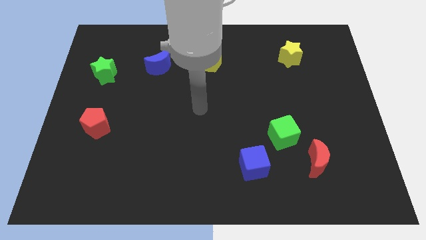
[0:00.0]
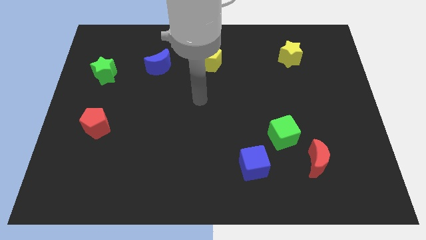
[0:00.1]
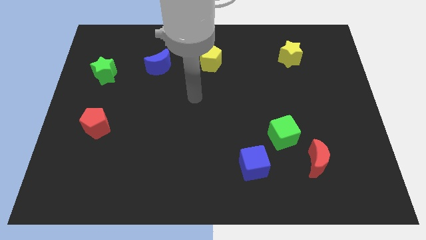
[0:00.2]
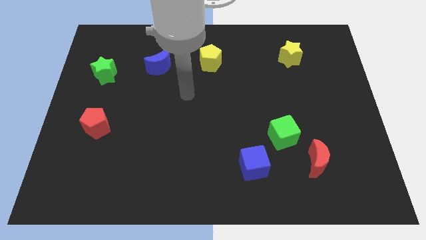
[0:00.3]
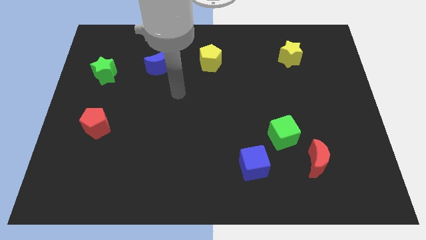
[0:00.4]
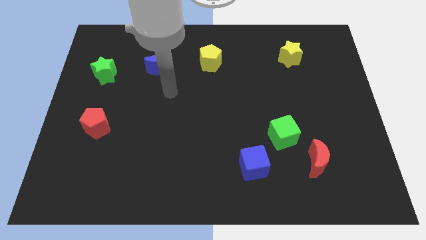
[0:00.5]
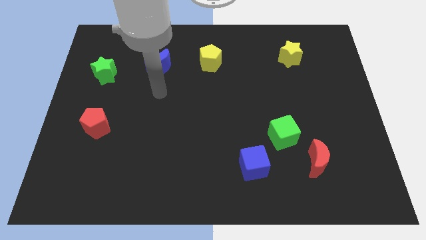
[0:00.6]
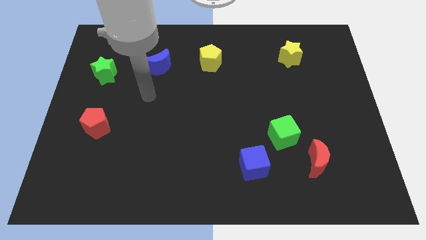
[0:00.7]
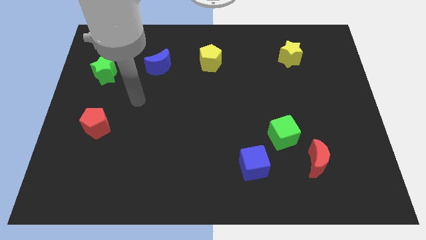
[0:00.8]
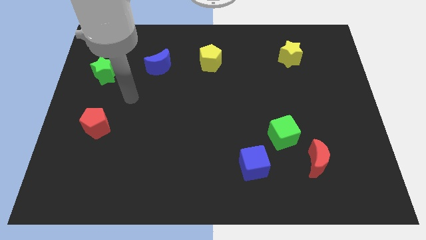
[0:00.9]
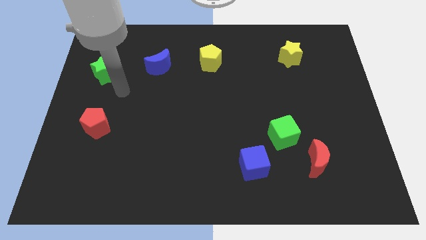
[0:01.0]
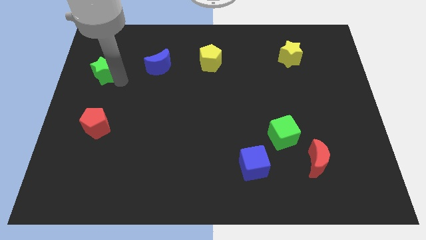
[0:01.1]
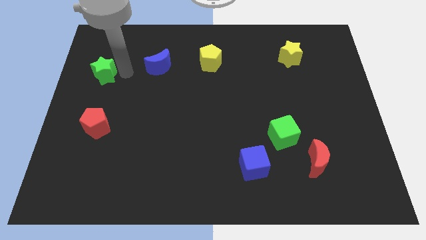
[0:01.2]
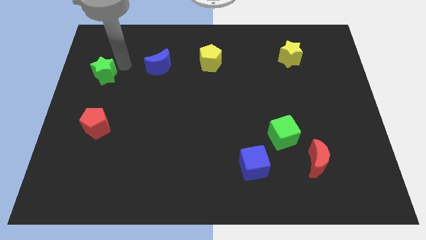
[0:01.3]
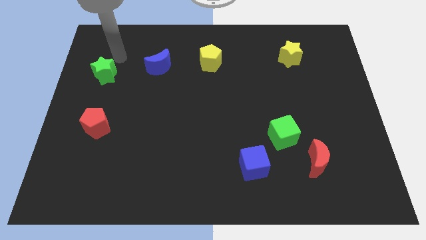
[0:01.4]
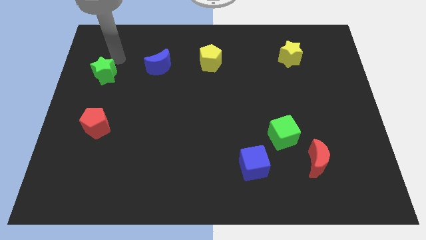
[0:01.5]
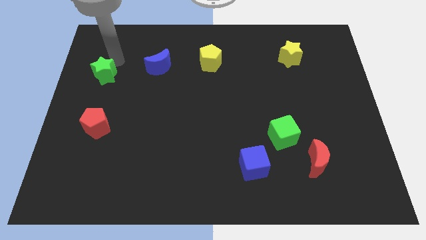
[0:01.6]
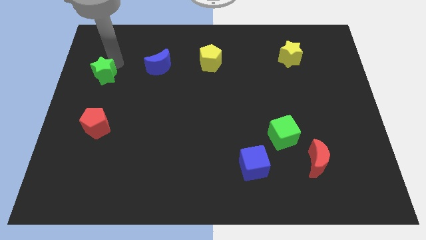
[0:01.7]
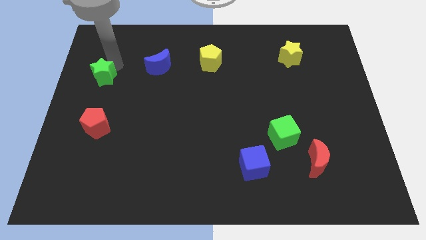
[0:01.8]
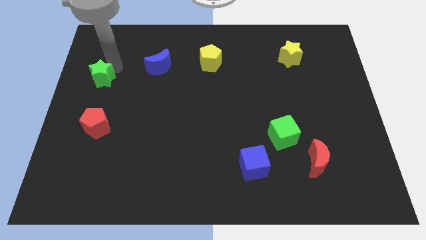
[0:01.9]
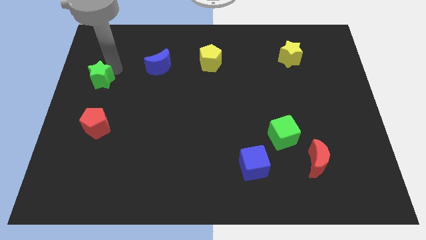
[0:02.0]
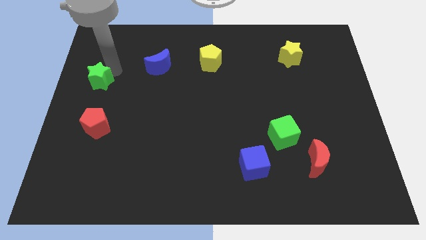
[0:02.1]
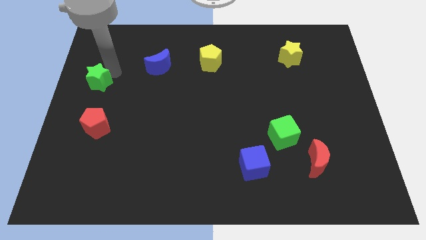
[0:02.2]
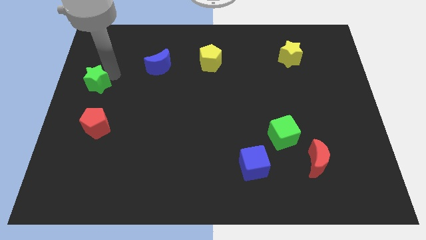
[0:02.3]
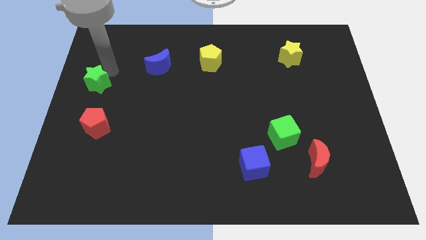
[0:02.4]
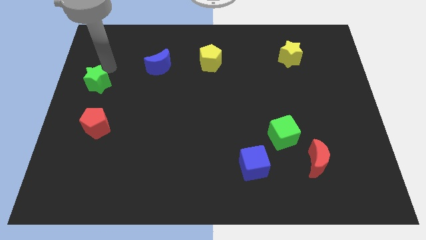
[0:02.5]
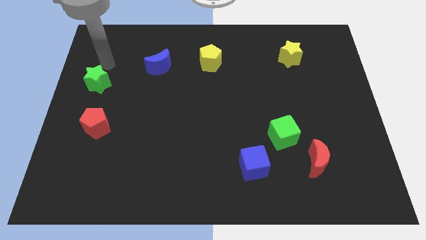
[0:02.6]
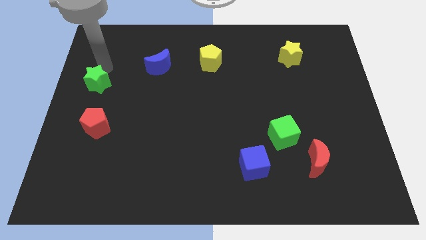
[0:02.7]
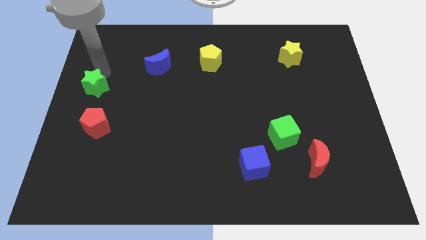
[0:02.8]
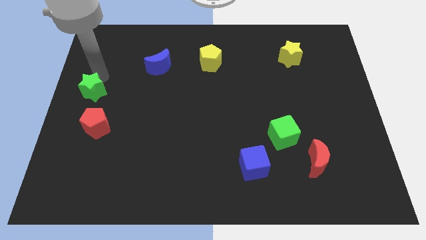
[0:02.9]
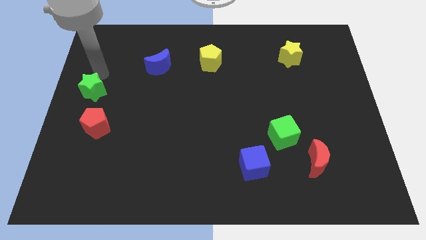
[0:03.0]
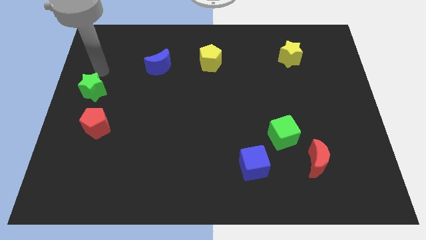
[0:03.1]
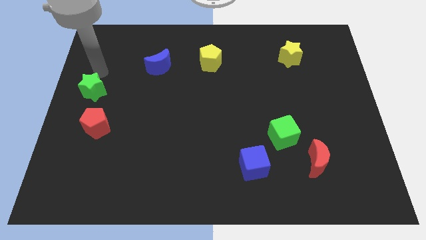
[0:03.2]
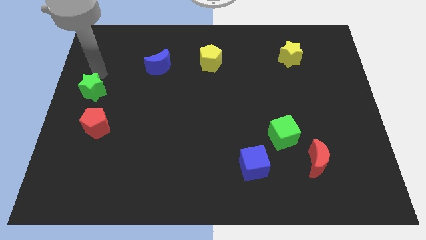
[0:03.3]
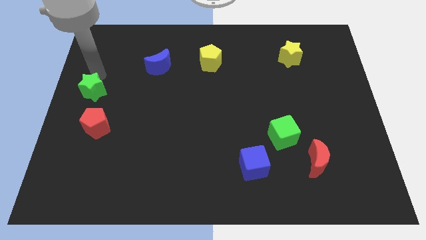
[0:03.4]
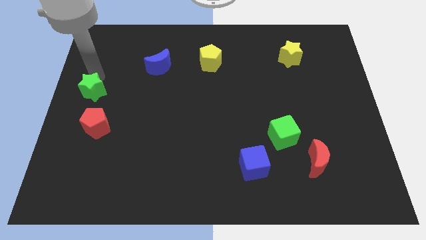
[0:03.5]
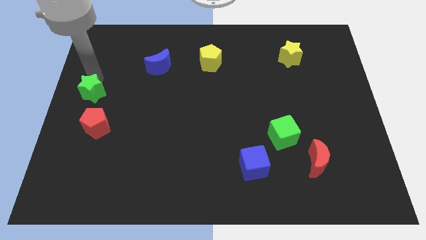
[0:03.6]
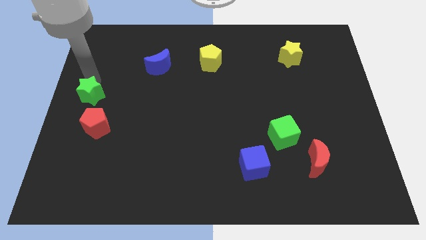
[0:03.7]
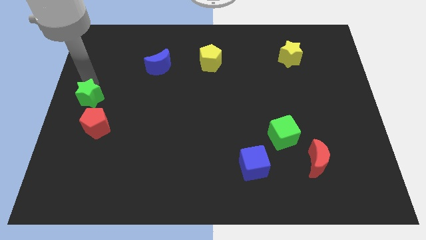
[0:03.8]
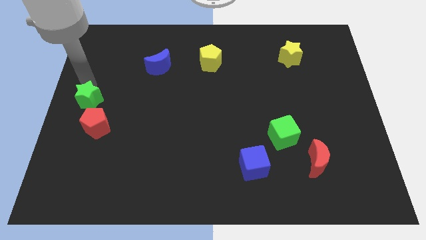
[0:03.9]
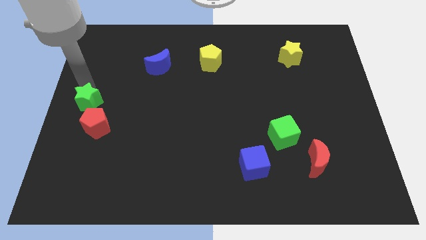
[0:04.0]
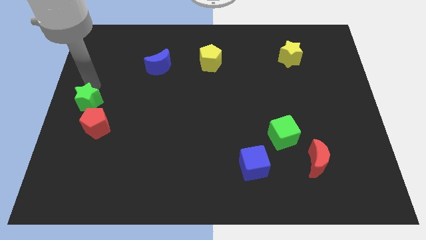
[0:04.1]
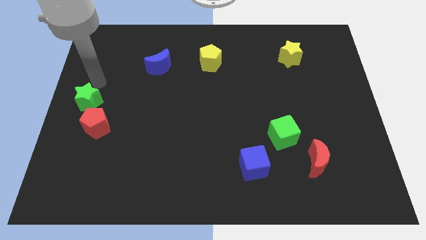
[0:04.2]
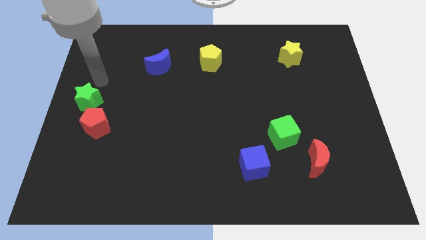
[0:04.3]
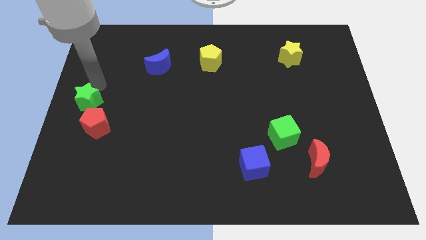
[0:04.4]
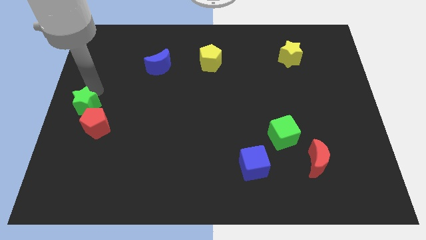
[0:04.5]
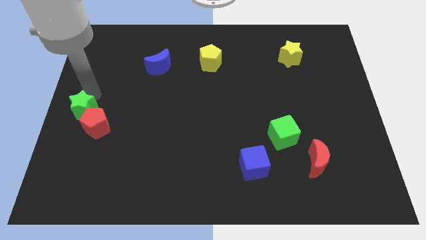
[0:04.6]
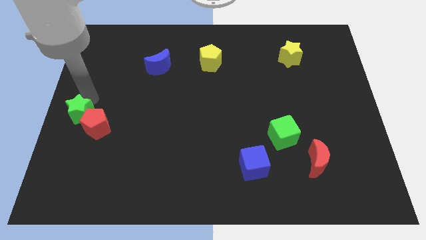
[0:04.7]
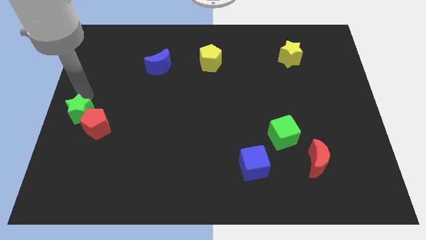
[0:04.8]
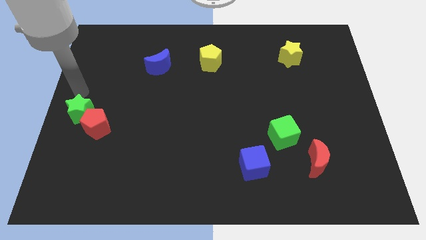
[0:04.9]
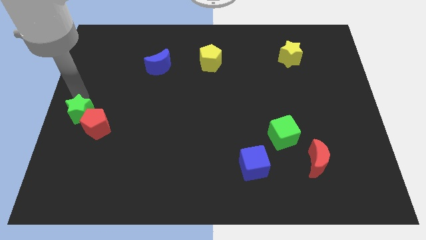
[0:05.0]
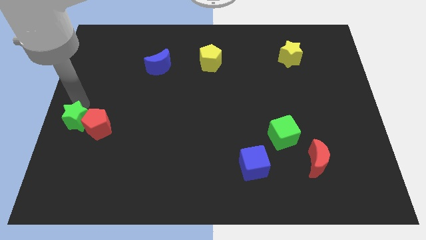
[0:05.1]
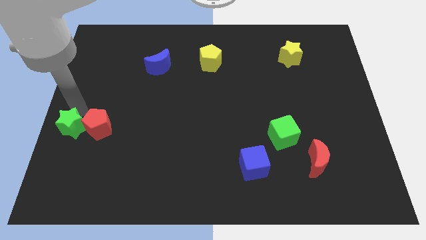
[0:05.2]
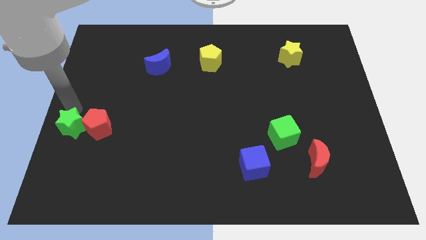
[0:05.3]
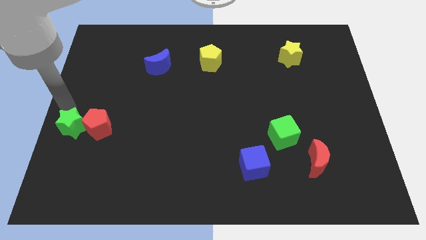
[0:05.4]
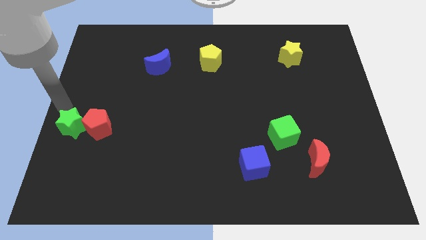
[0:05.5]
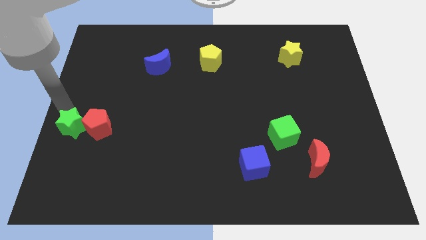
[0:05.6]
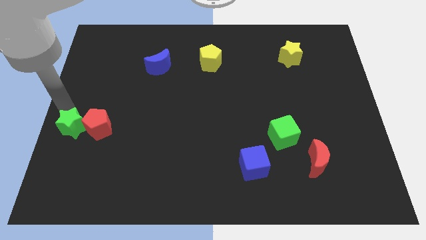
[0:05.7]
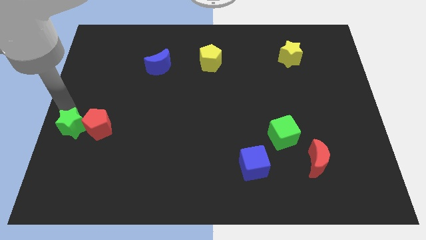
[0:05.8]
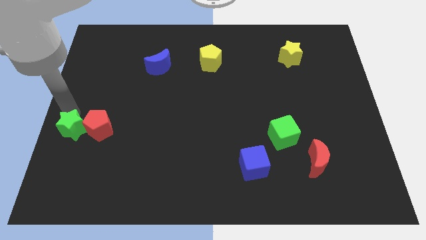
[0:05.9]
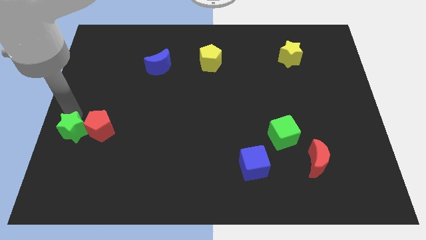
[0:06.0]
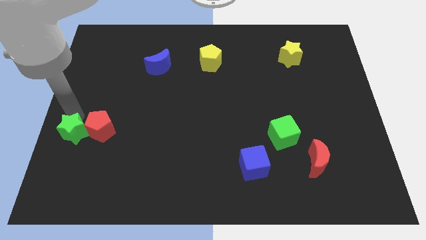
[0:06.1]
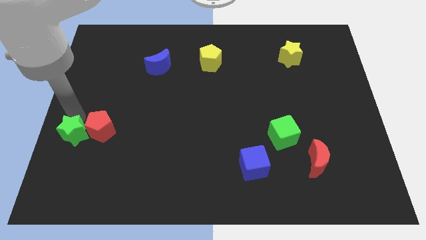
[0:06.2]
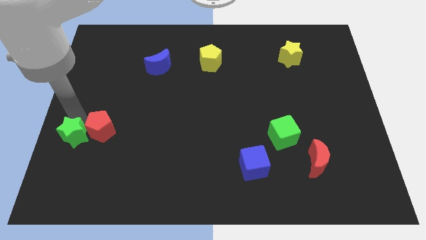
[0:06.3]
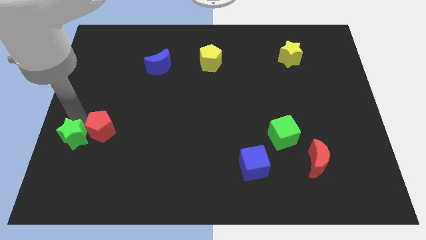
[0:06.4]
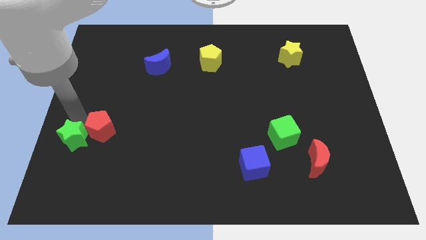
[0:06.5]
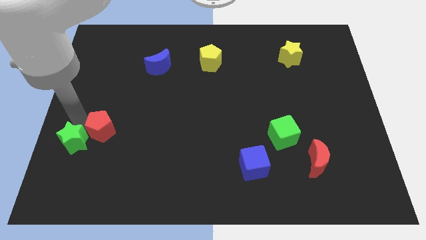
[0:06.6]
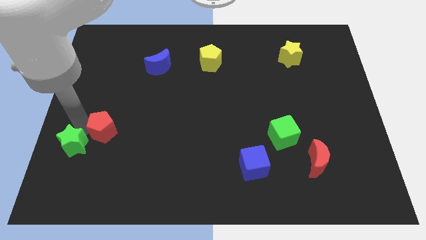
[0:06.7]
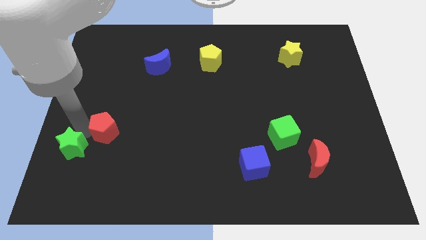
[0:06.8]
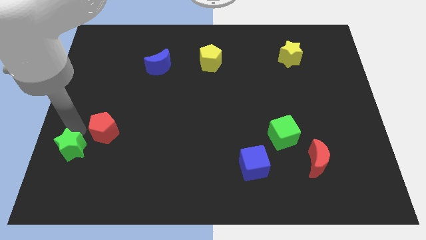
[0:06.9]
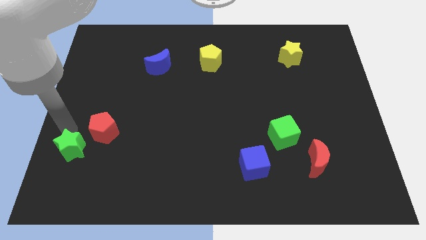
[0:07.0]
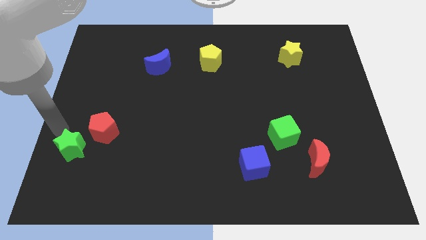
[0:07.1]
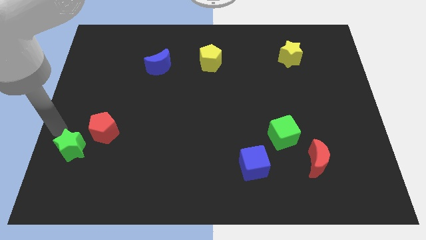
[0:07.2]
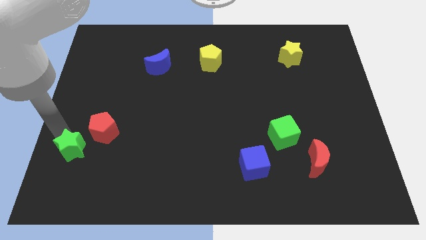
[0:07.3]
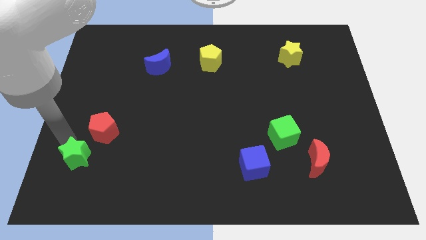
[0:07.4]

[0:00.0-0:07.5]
put the green star to the bottom of the red pentagon
